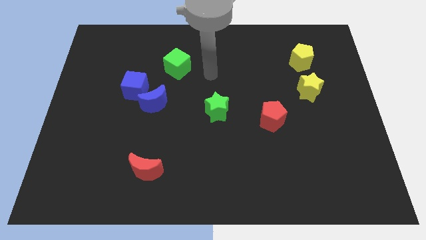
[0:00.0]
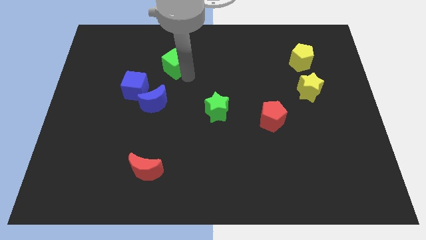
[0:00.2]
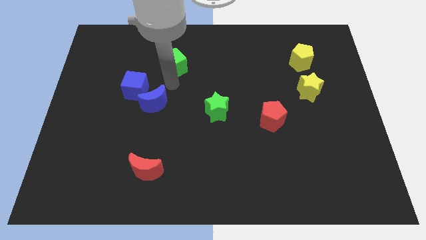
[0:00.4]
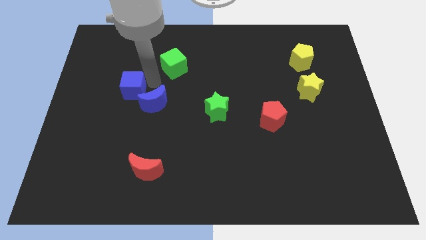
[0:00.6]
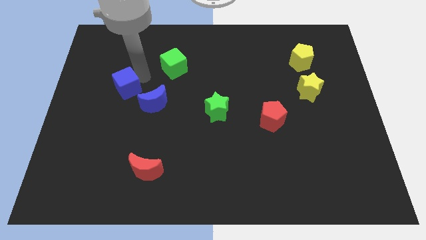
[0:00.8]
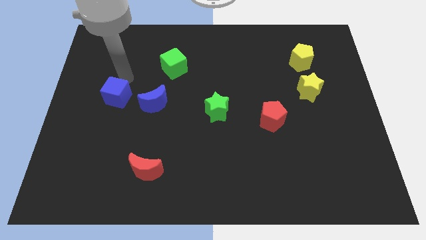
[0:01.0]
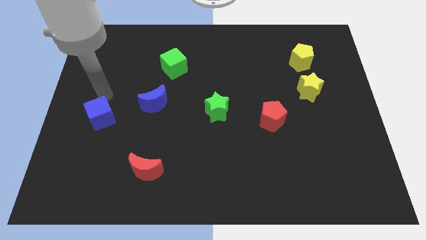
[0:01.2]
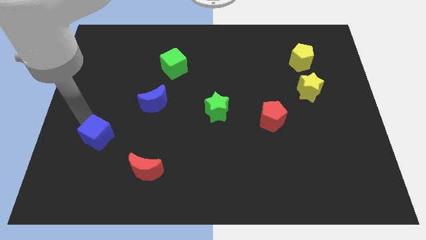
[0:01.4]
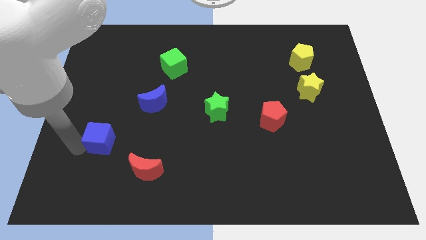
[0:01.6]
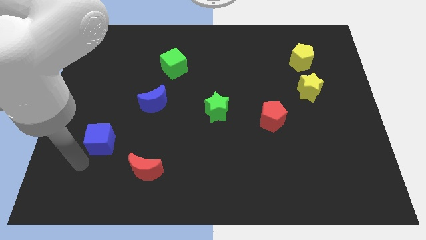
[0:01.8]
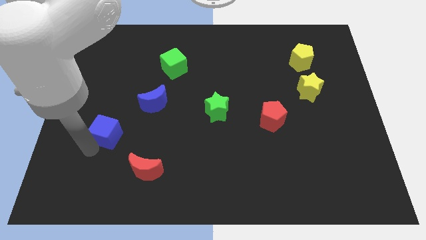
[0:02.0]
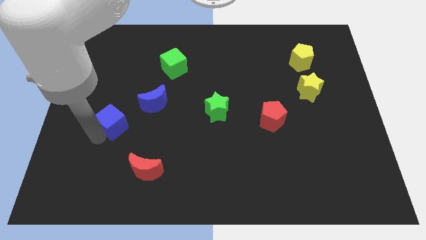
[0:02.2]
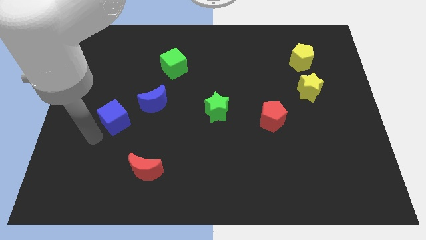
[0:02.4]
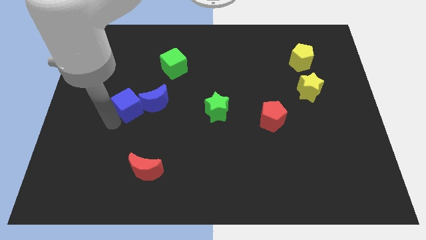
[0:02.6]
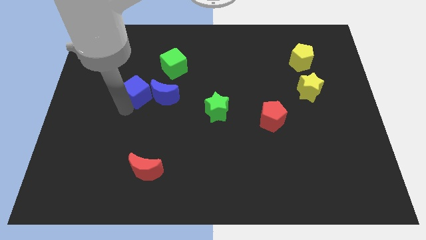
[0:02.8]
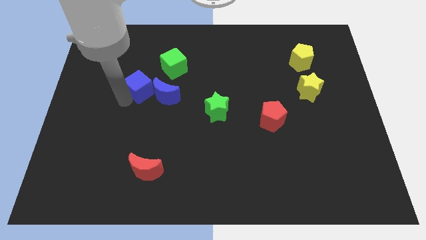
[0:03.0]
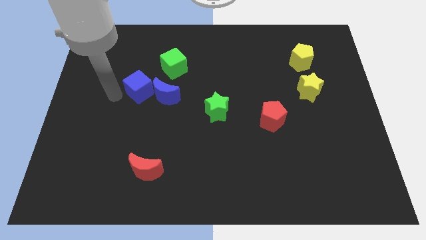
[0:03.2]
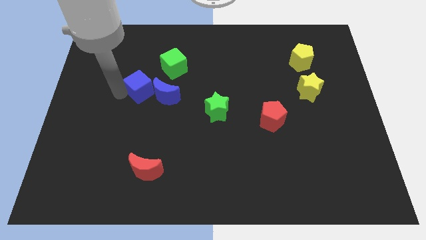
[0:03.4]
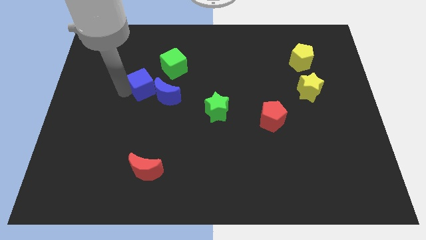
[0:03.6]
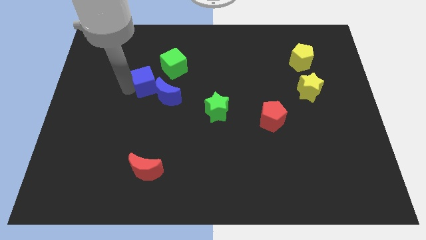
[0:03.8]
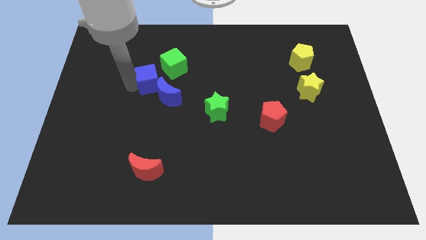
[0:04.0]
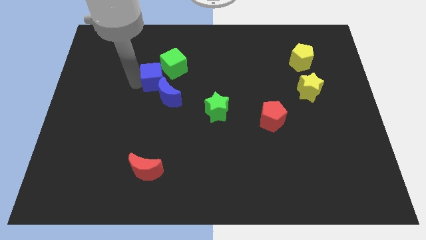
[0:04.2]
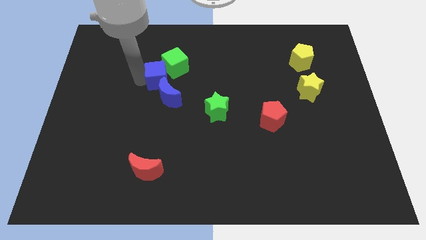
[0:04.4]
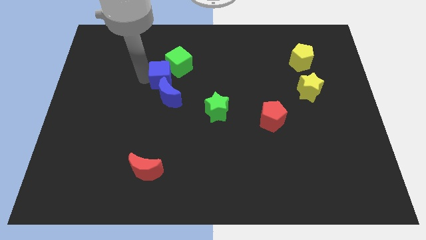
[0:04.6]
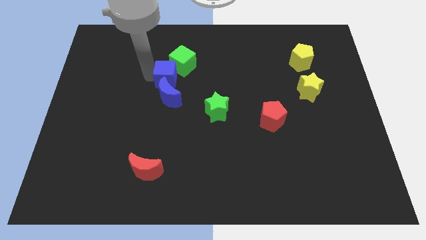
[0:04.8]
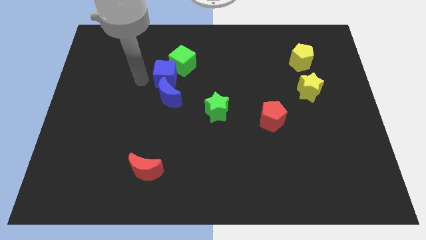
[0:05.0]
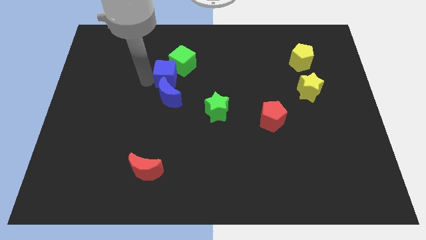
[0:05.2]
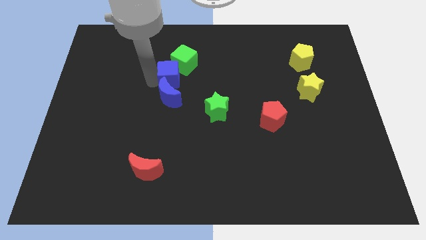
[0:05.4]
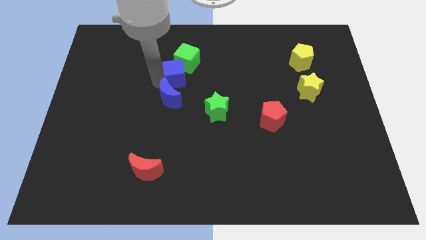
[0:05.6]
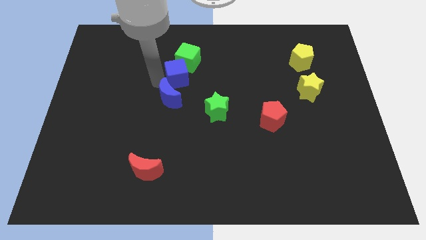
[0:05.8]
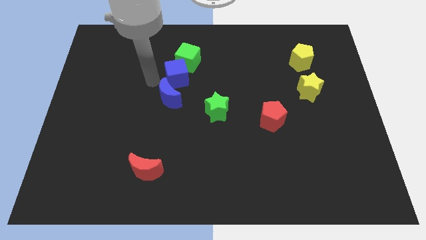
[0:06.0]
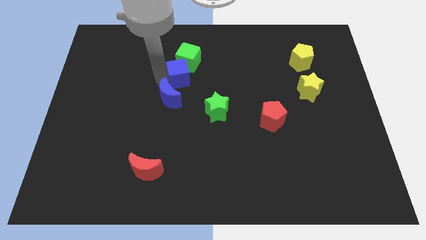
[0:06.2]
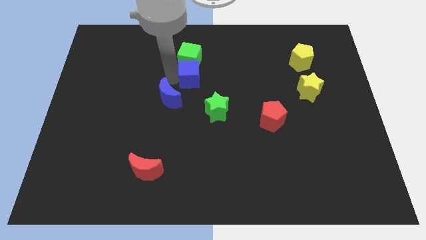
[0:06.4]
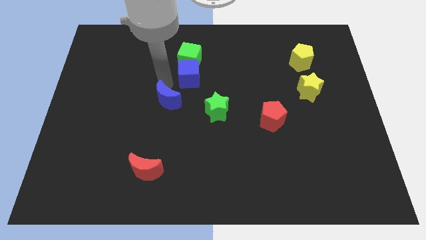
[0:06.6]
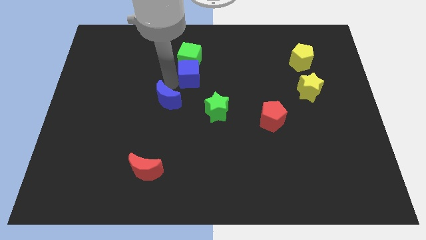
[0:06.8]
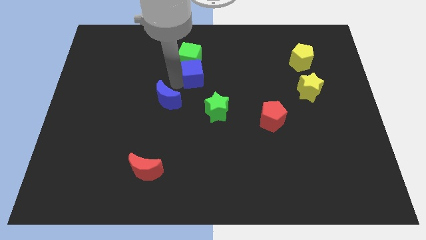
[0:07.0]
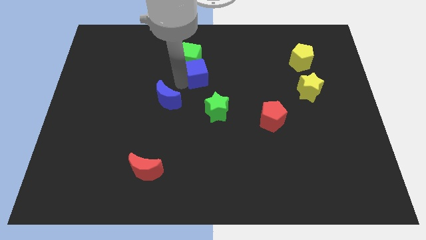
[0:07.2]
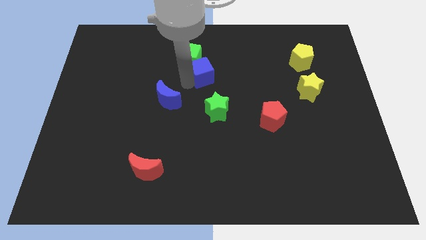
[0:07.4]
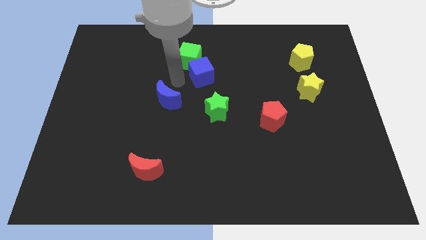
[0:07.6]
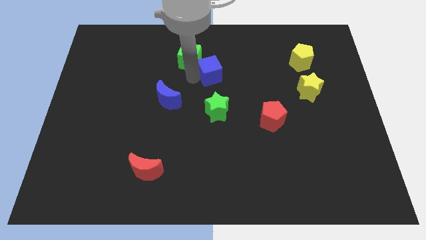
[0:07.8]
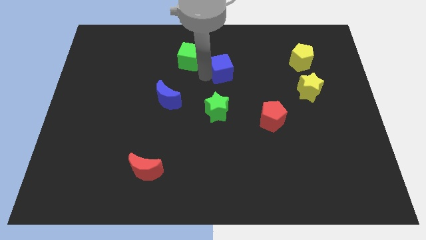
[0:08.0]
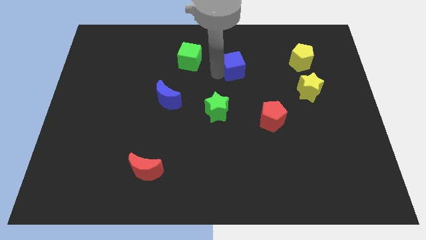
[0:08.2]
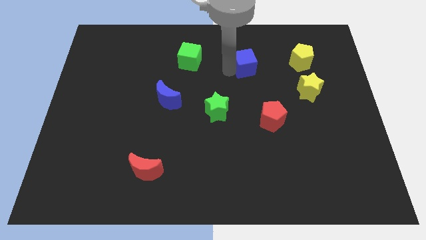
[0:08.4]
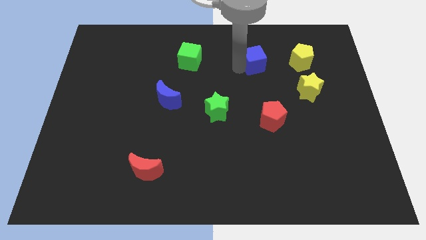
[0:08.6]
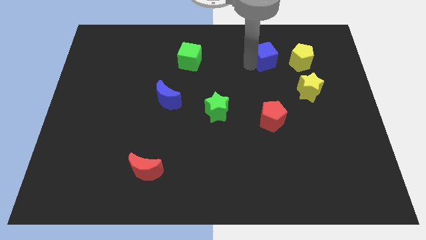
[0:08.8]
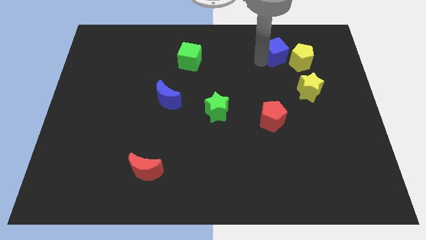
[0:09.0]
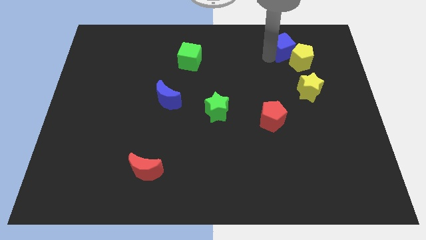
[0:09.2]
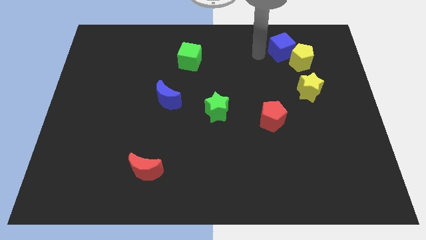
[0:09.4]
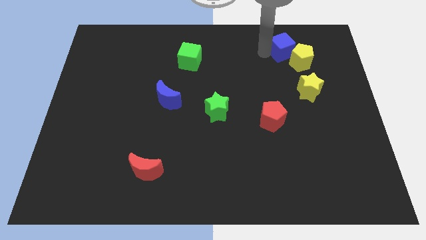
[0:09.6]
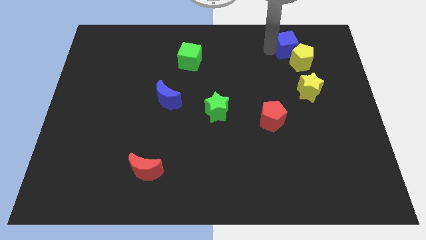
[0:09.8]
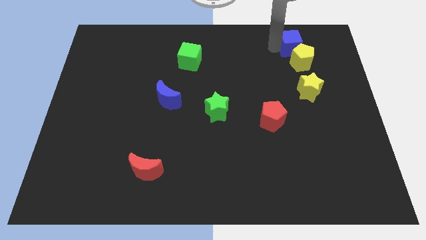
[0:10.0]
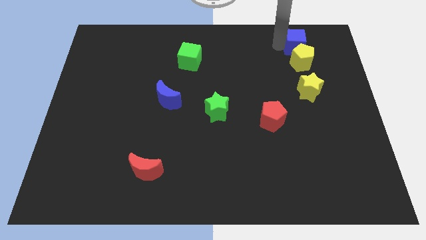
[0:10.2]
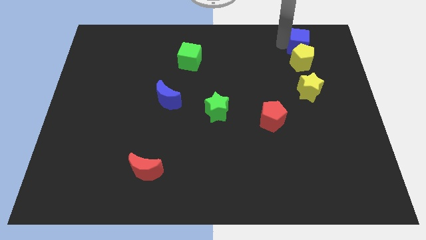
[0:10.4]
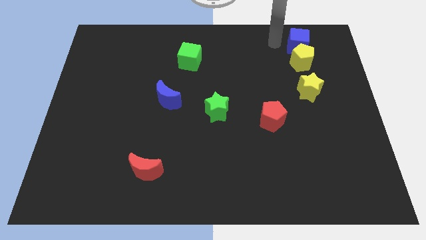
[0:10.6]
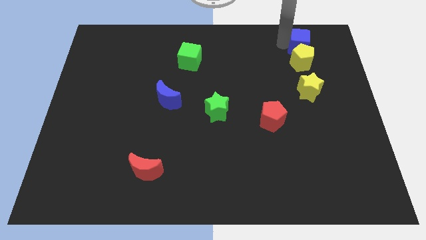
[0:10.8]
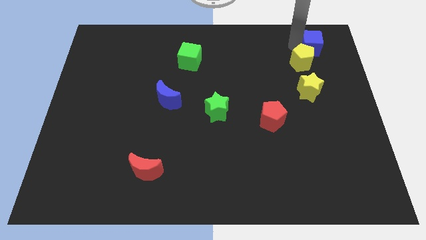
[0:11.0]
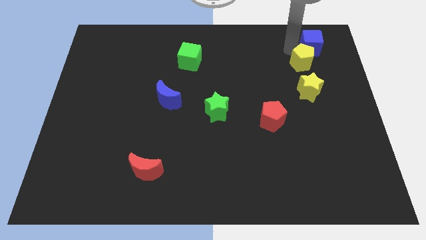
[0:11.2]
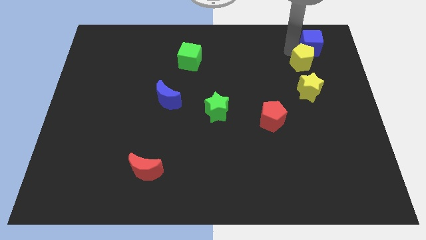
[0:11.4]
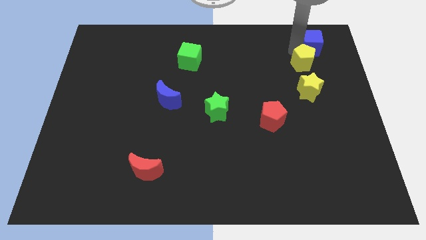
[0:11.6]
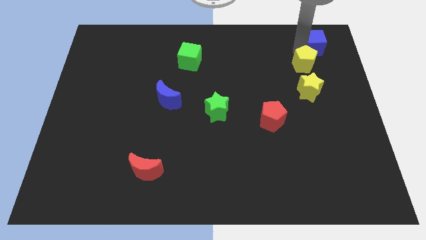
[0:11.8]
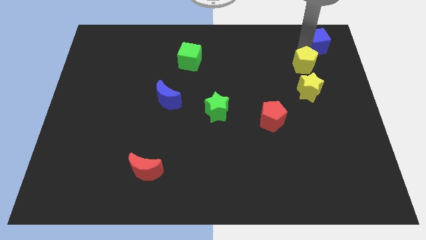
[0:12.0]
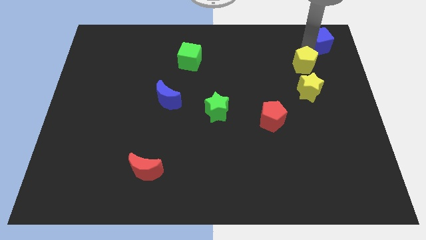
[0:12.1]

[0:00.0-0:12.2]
push the blue cube to the top right

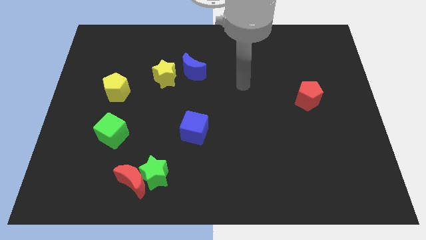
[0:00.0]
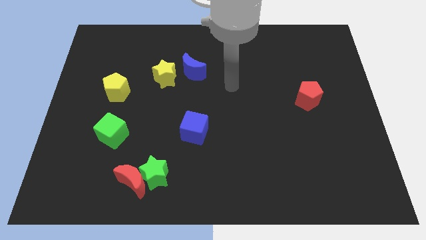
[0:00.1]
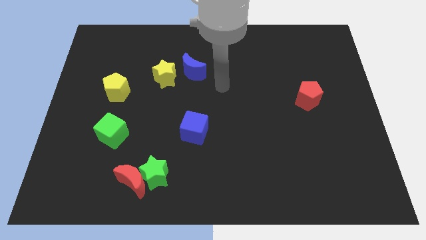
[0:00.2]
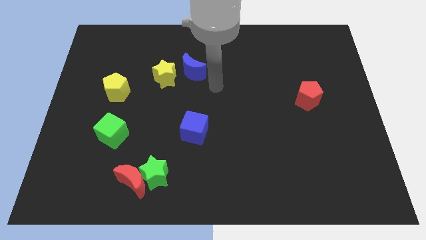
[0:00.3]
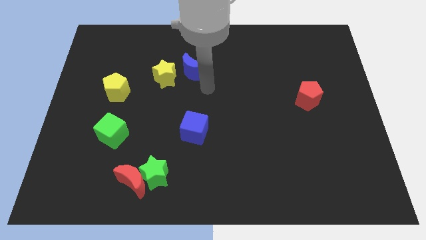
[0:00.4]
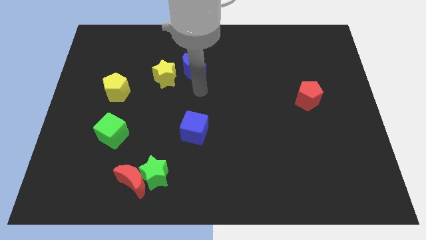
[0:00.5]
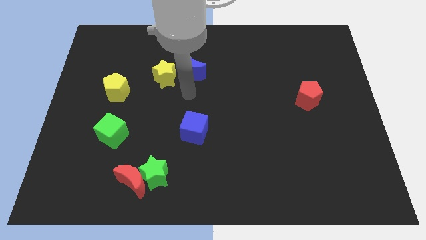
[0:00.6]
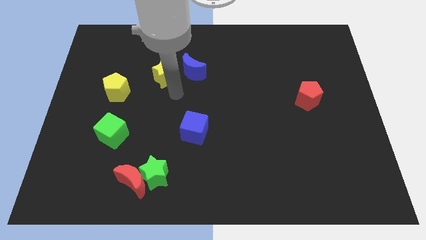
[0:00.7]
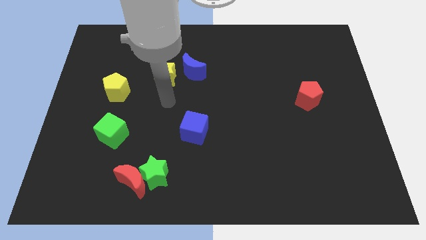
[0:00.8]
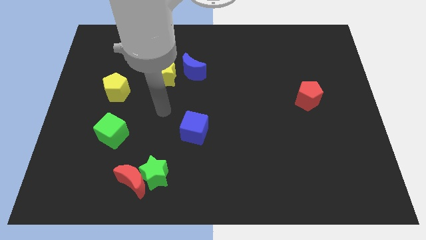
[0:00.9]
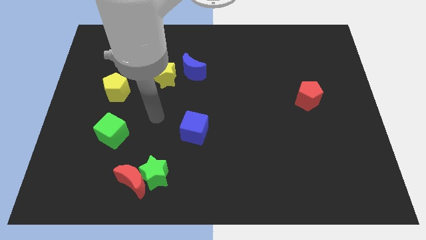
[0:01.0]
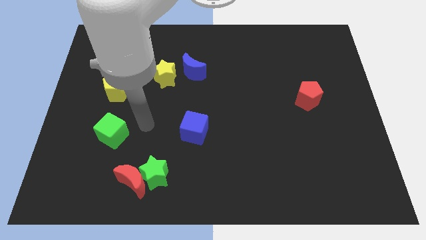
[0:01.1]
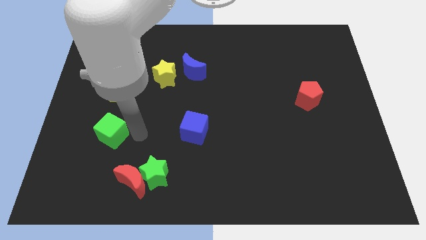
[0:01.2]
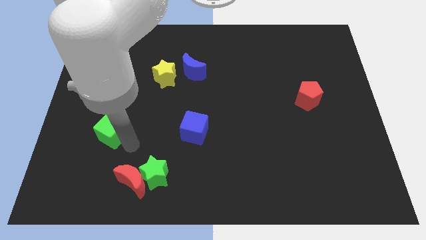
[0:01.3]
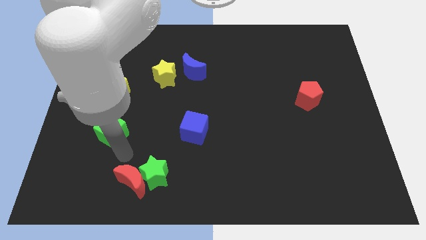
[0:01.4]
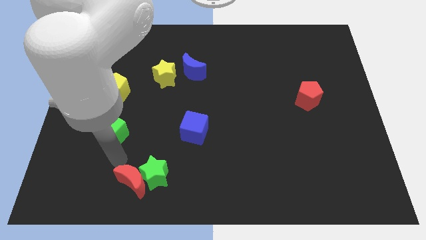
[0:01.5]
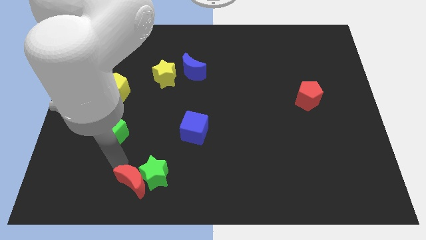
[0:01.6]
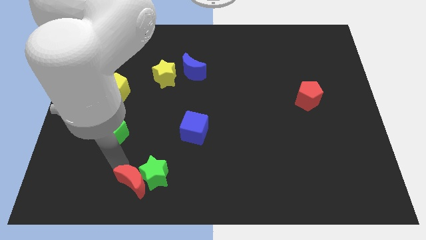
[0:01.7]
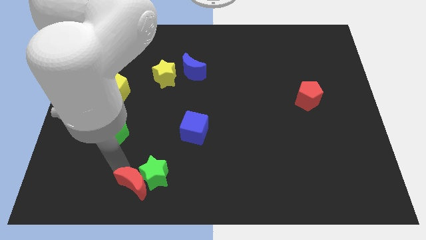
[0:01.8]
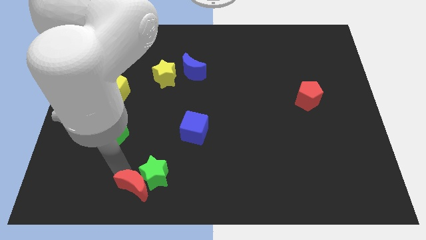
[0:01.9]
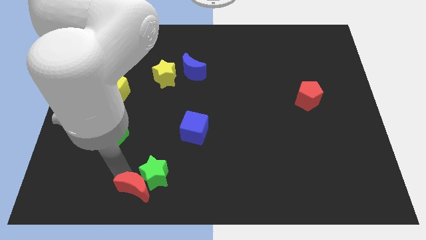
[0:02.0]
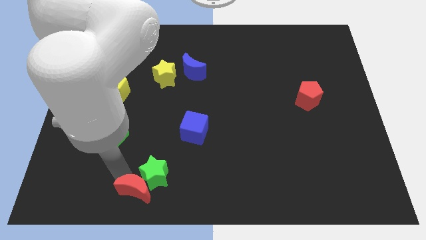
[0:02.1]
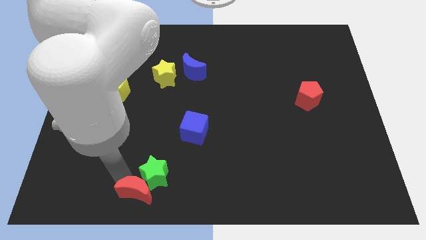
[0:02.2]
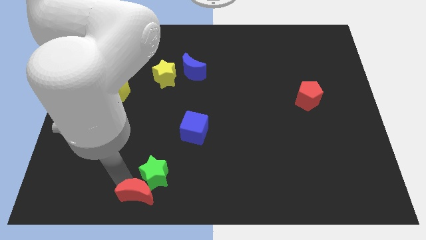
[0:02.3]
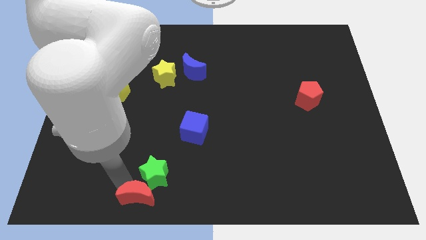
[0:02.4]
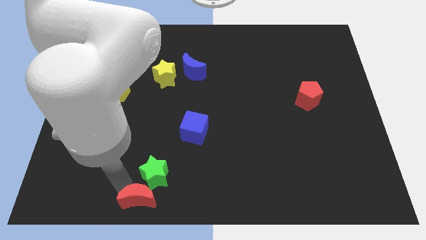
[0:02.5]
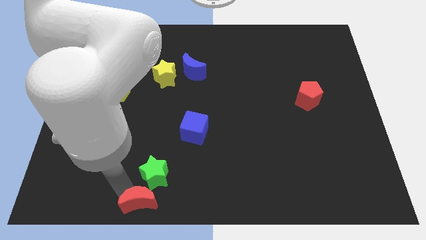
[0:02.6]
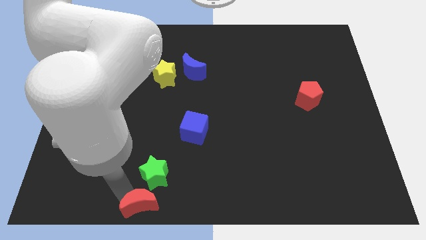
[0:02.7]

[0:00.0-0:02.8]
put the red moon to the bottom side
